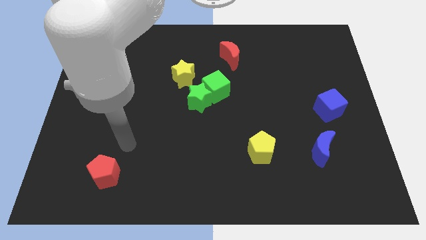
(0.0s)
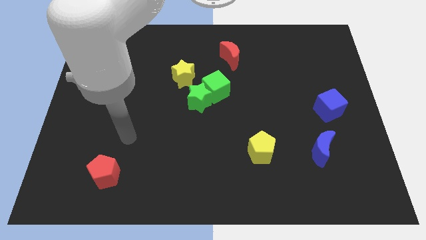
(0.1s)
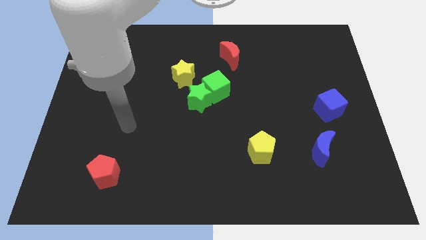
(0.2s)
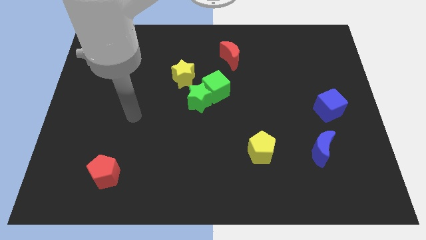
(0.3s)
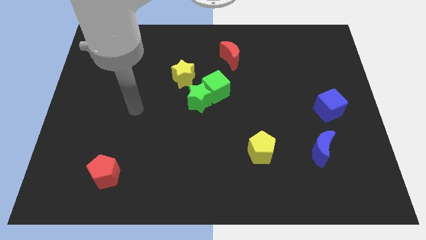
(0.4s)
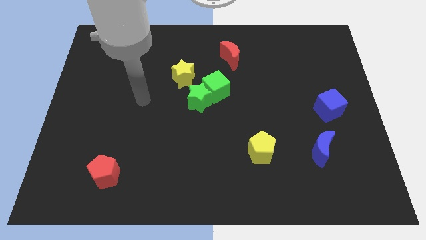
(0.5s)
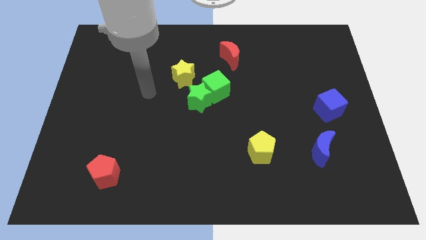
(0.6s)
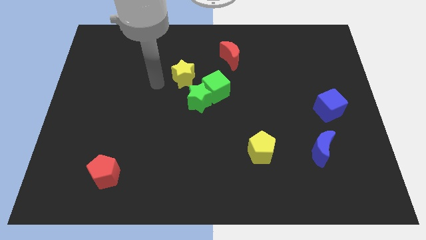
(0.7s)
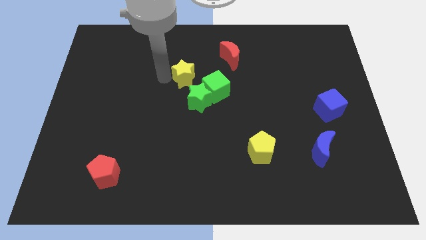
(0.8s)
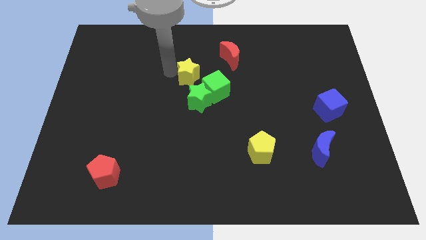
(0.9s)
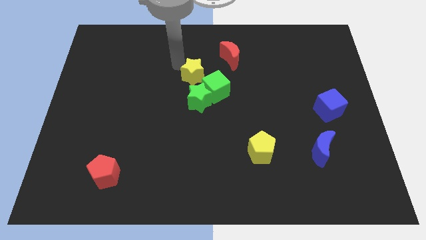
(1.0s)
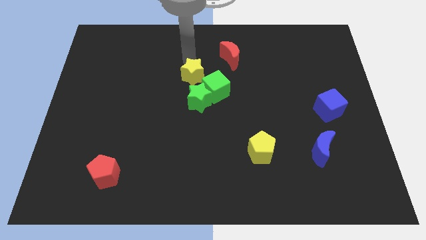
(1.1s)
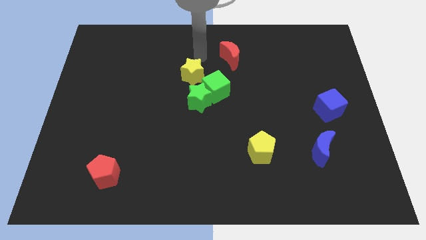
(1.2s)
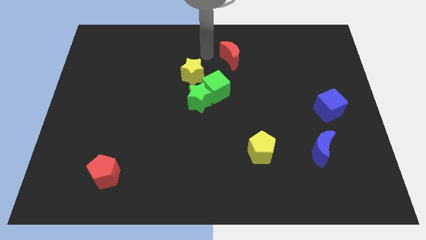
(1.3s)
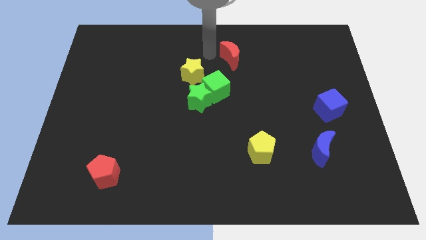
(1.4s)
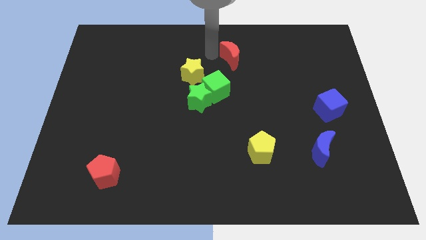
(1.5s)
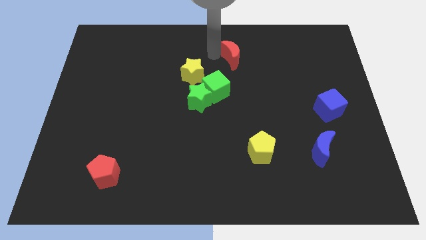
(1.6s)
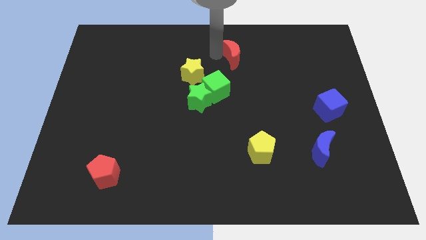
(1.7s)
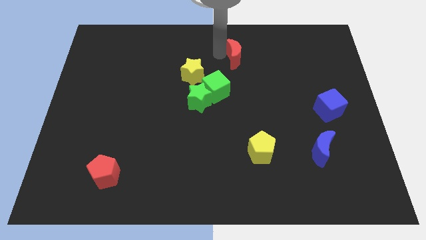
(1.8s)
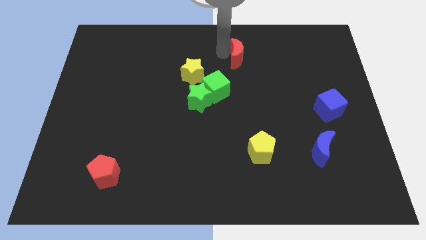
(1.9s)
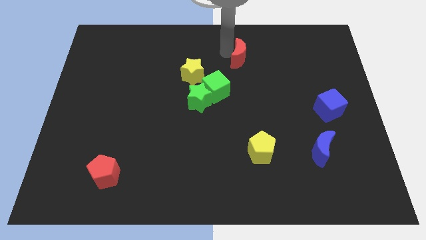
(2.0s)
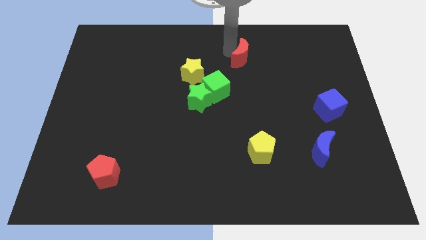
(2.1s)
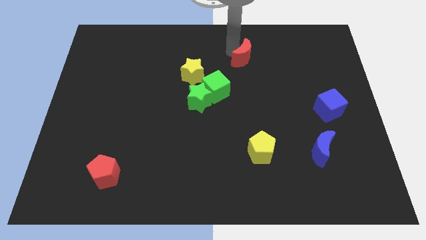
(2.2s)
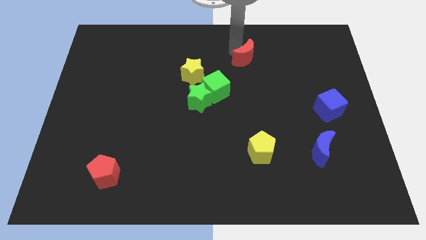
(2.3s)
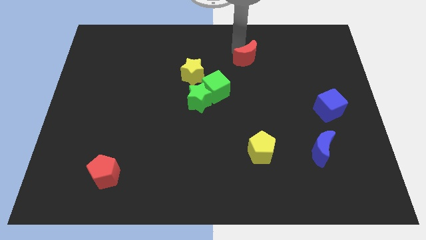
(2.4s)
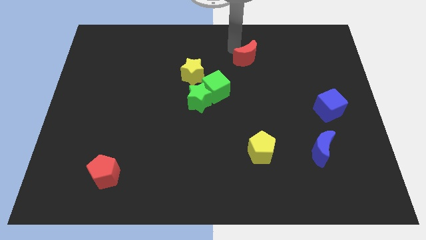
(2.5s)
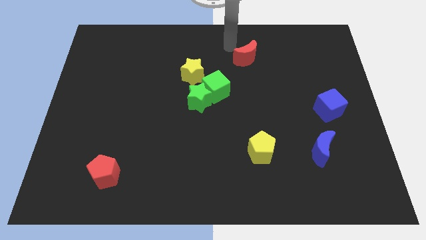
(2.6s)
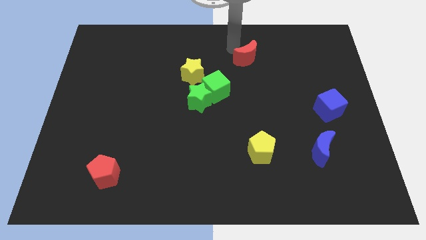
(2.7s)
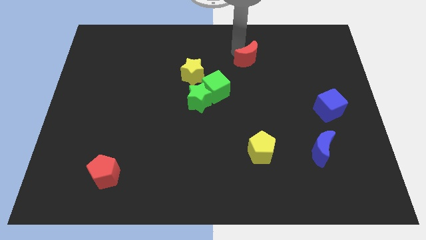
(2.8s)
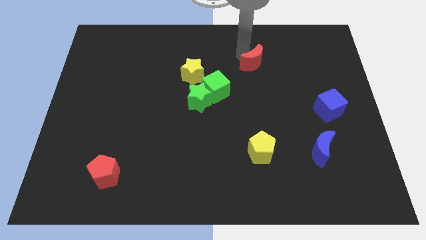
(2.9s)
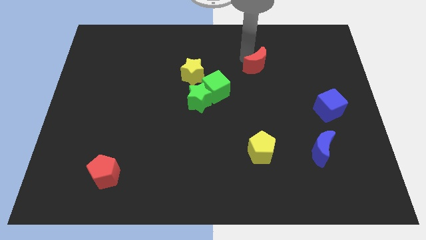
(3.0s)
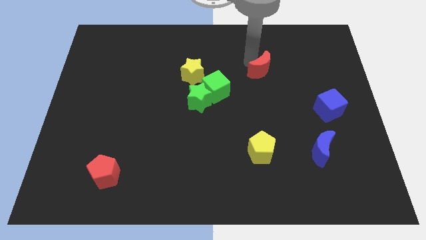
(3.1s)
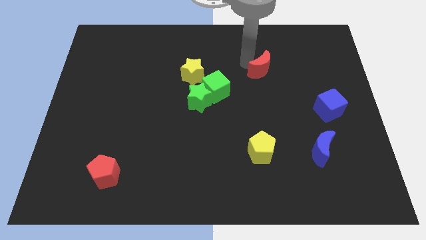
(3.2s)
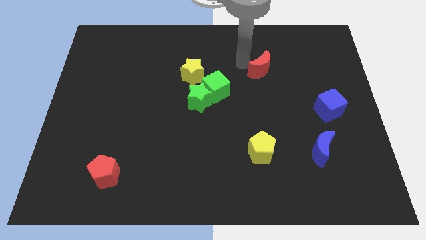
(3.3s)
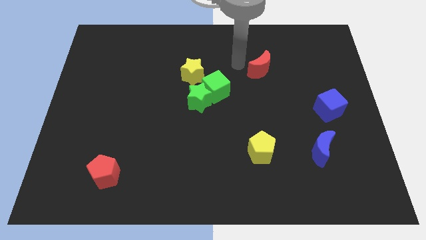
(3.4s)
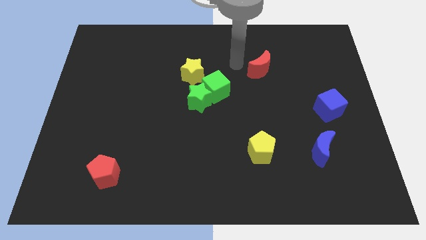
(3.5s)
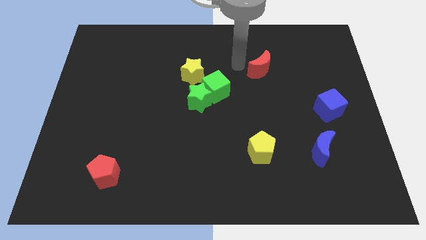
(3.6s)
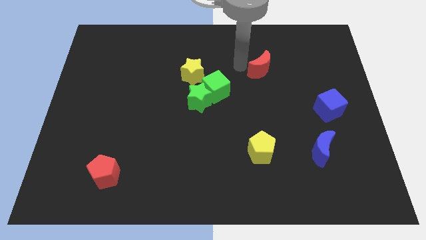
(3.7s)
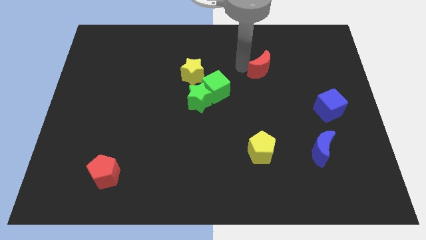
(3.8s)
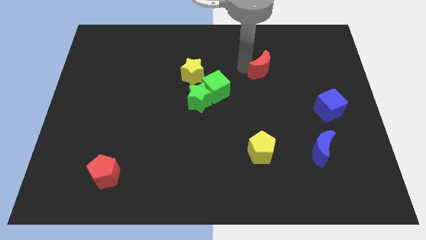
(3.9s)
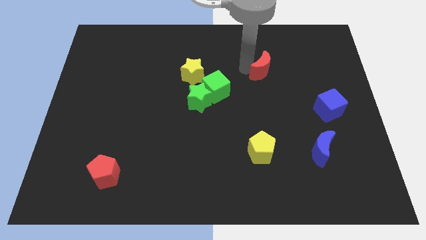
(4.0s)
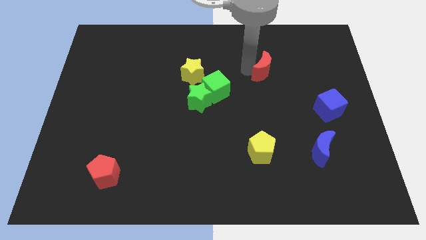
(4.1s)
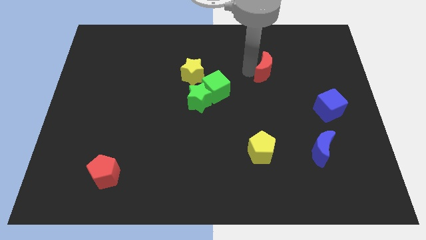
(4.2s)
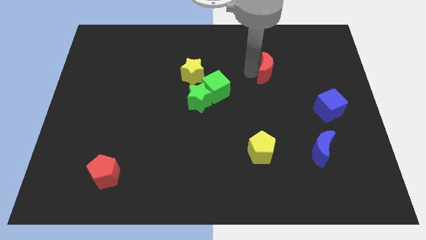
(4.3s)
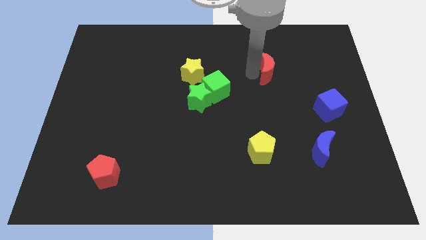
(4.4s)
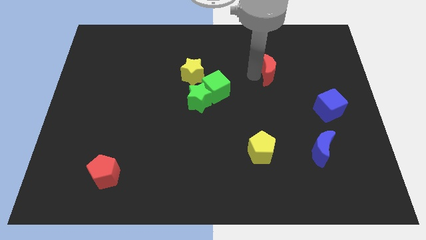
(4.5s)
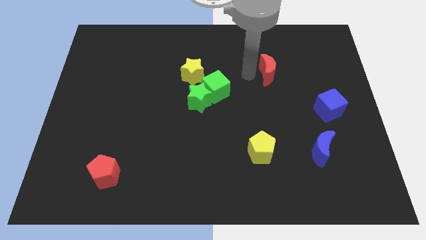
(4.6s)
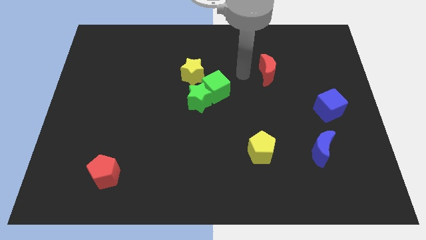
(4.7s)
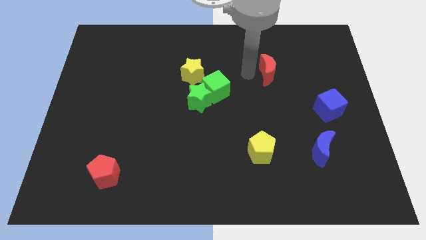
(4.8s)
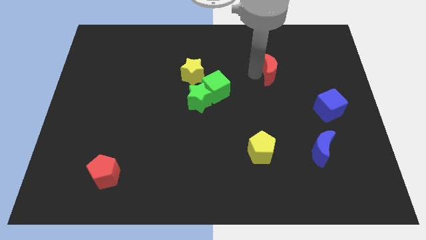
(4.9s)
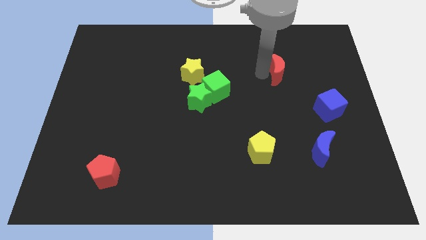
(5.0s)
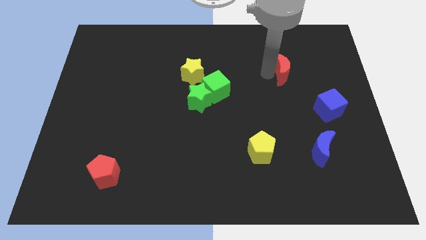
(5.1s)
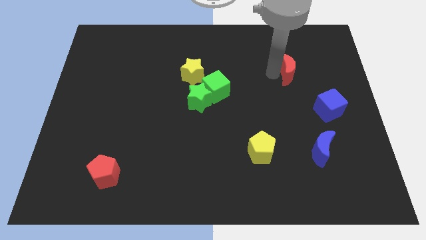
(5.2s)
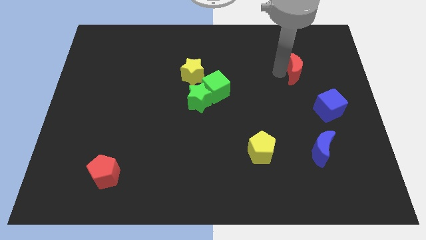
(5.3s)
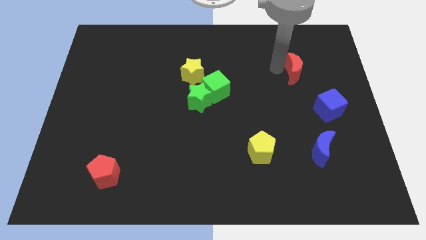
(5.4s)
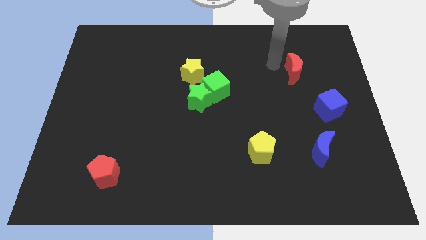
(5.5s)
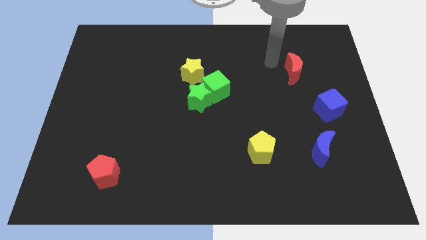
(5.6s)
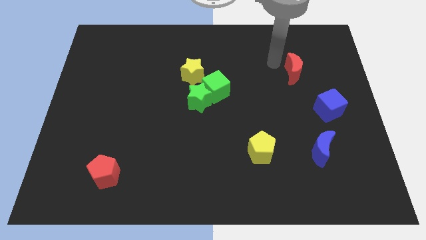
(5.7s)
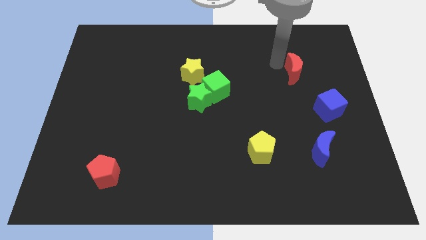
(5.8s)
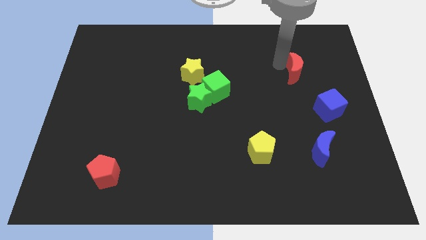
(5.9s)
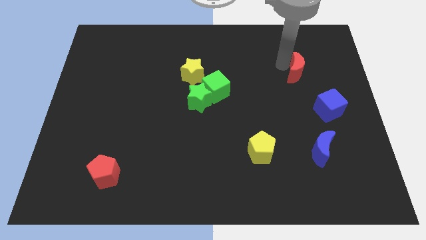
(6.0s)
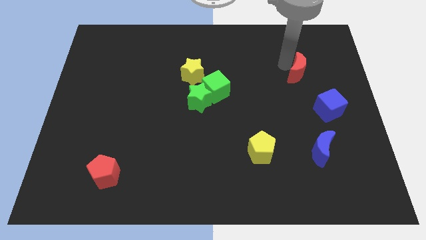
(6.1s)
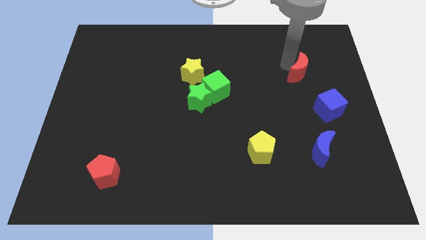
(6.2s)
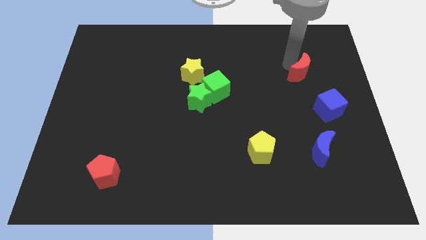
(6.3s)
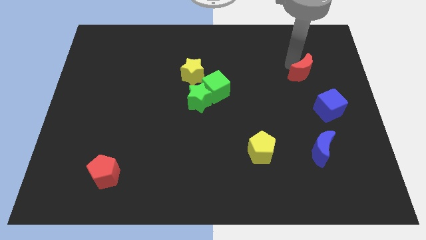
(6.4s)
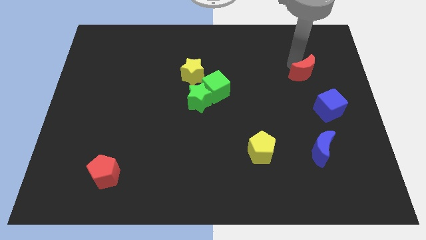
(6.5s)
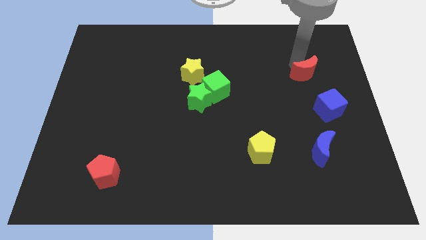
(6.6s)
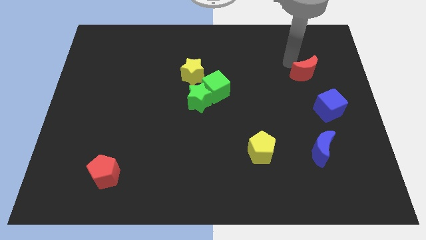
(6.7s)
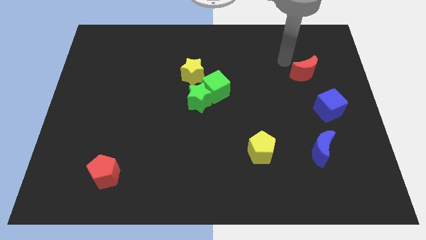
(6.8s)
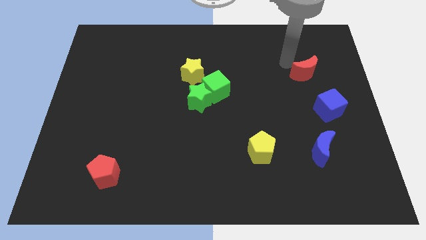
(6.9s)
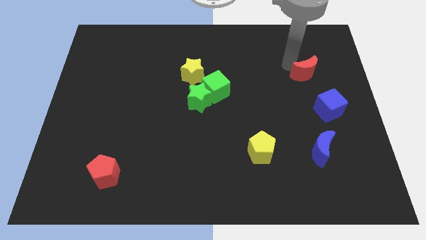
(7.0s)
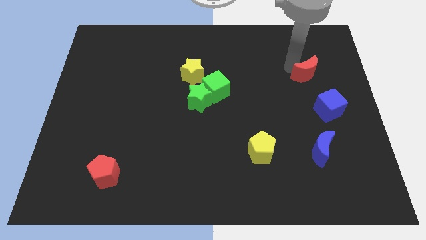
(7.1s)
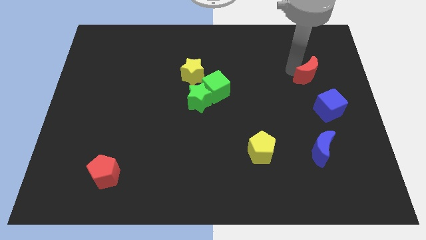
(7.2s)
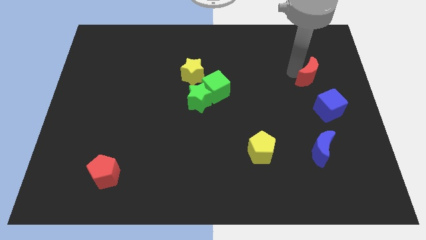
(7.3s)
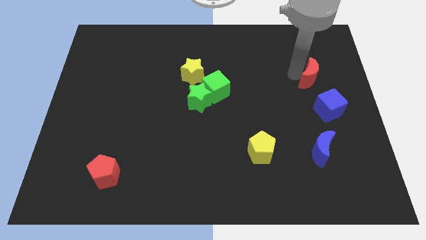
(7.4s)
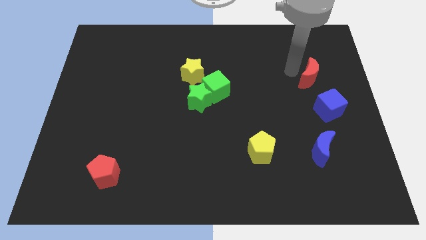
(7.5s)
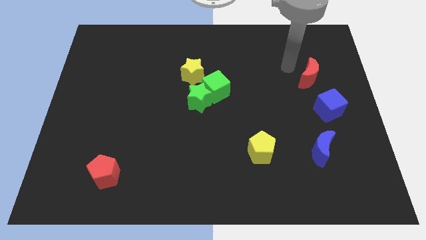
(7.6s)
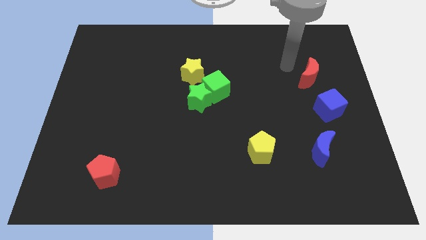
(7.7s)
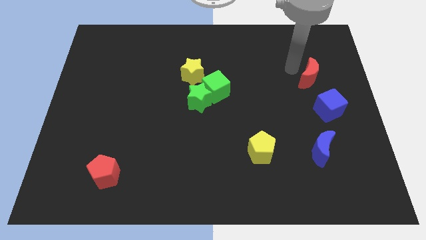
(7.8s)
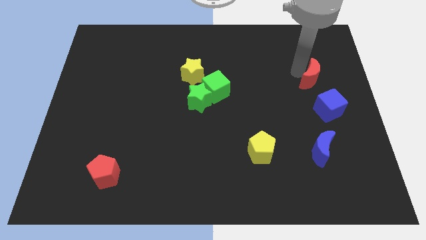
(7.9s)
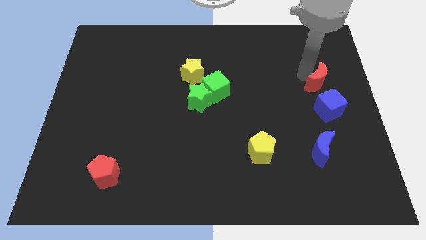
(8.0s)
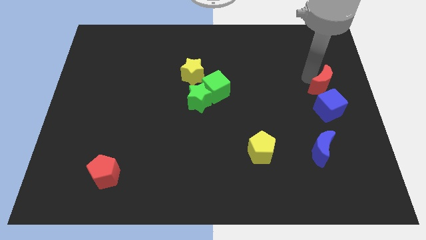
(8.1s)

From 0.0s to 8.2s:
push the red moon to the center right
